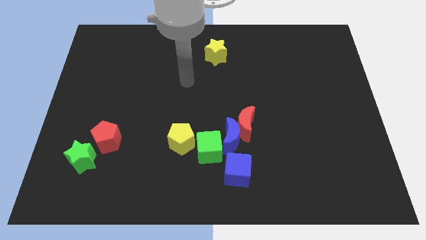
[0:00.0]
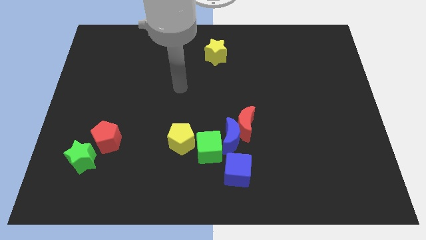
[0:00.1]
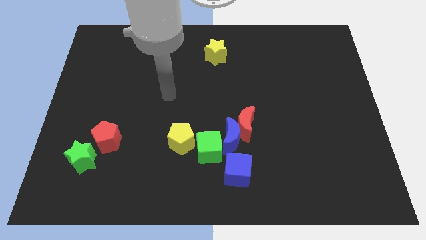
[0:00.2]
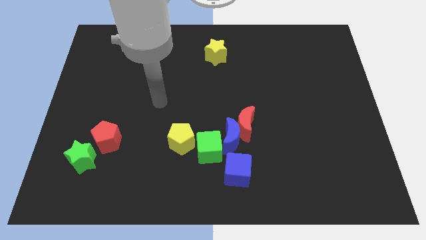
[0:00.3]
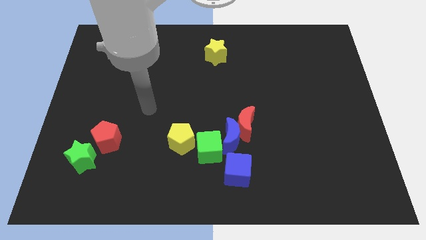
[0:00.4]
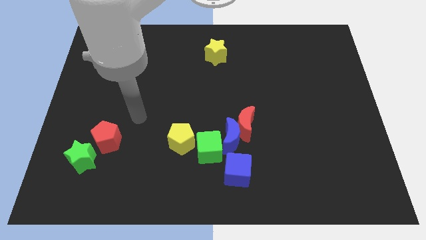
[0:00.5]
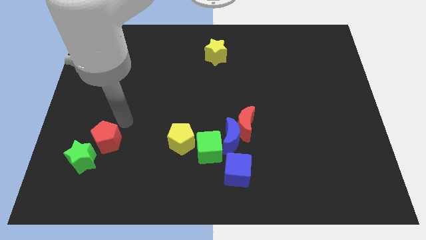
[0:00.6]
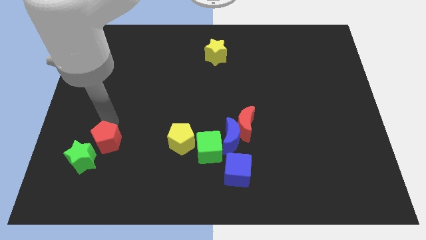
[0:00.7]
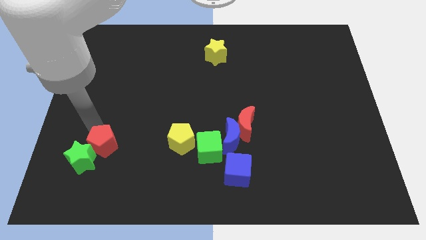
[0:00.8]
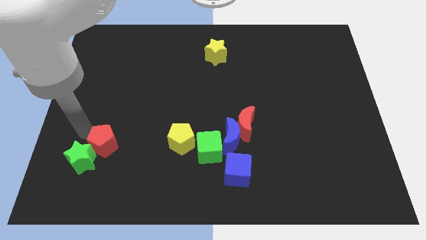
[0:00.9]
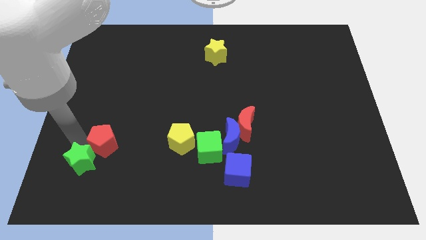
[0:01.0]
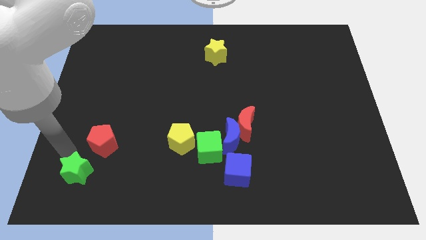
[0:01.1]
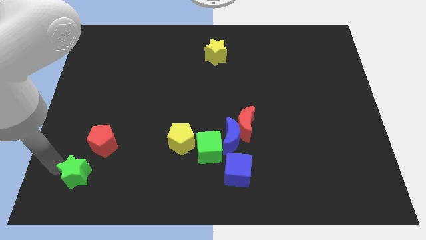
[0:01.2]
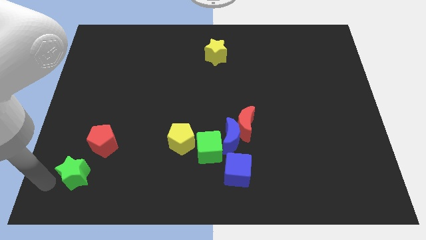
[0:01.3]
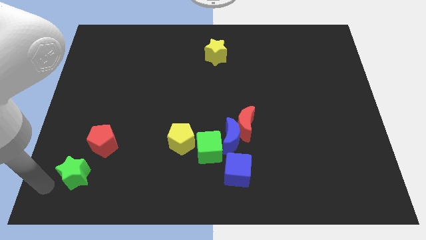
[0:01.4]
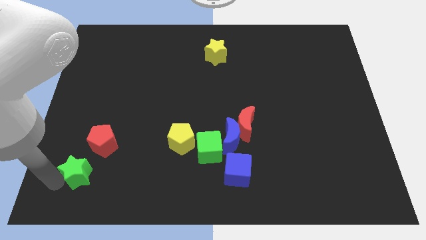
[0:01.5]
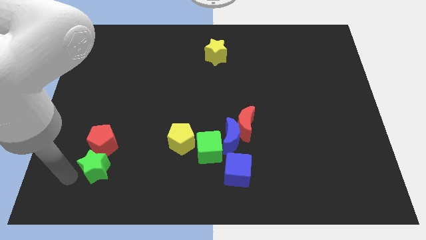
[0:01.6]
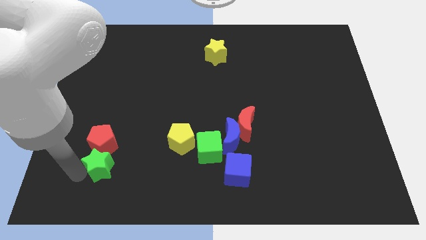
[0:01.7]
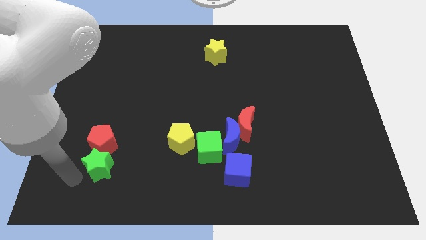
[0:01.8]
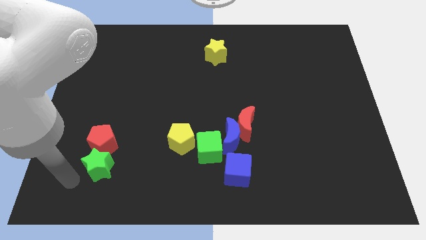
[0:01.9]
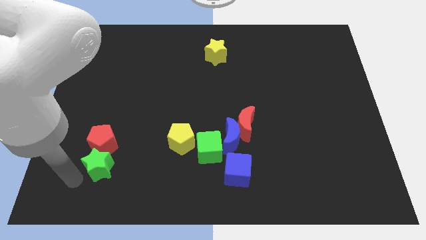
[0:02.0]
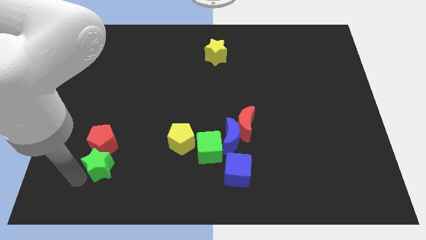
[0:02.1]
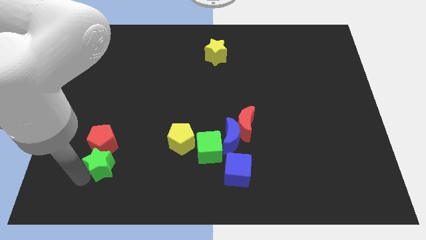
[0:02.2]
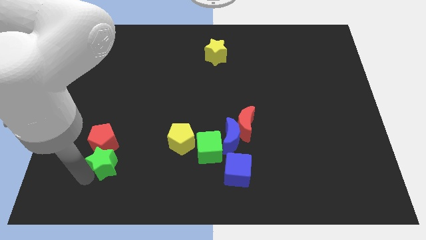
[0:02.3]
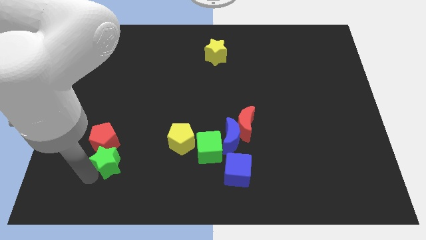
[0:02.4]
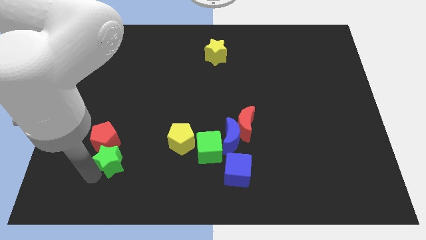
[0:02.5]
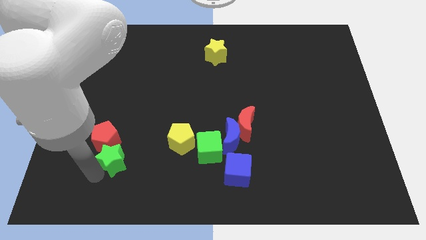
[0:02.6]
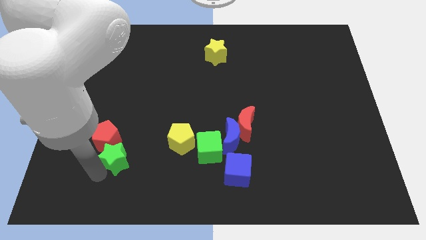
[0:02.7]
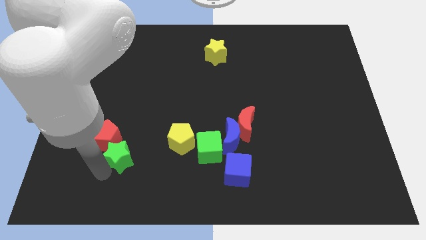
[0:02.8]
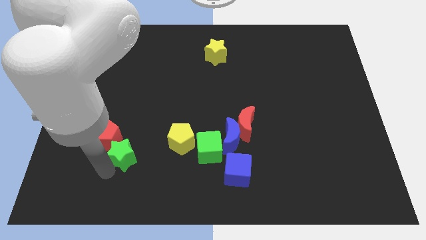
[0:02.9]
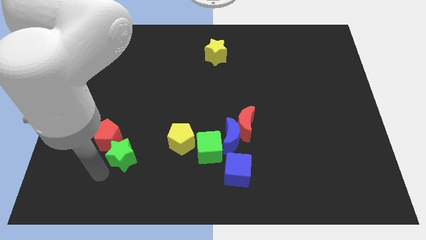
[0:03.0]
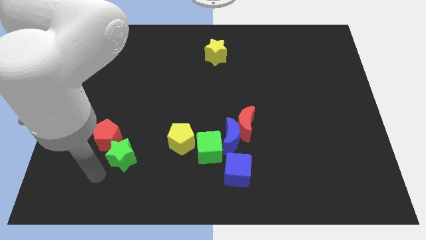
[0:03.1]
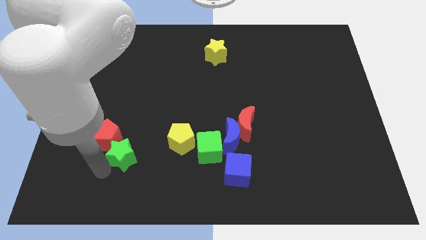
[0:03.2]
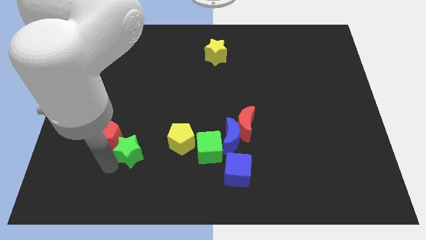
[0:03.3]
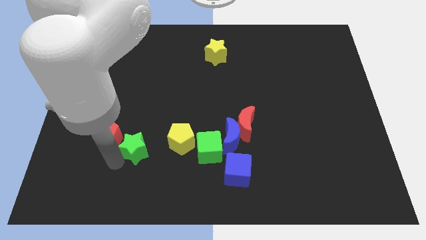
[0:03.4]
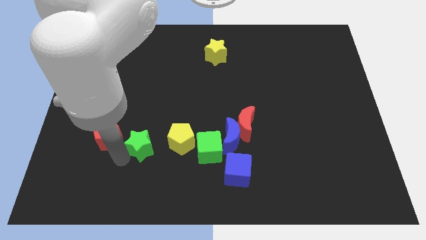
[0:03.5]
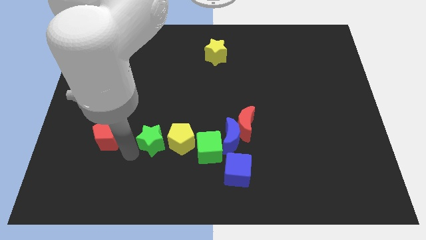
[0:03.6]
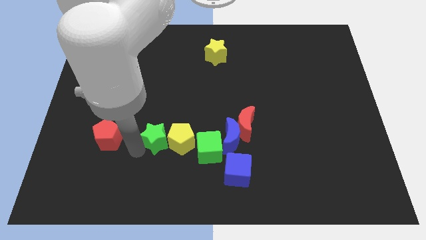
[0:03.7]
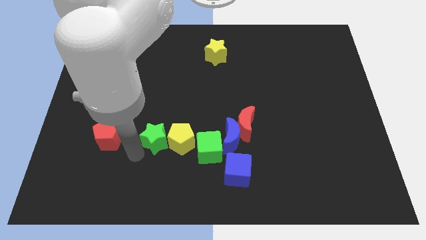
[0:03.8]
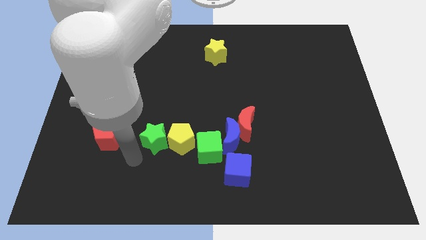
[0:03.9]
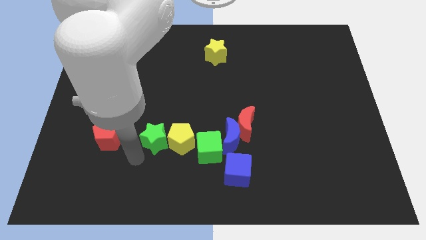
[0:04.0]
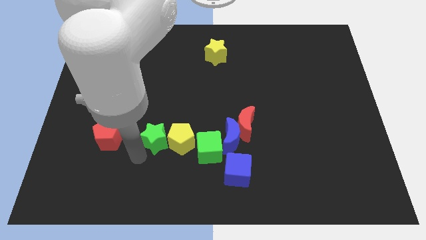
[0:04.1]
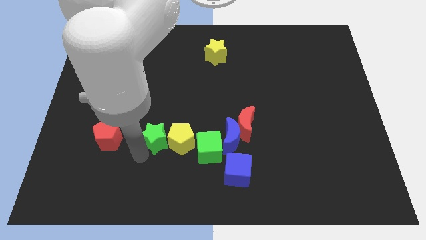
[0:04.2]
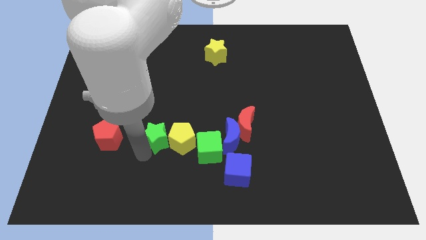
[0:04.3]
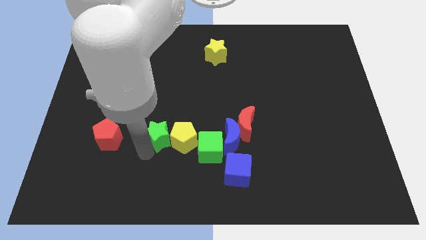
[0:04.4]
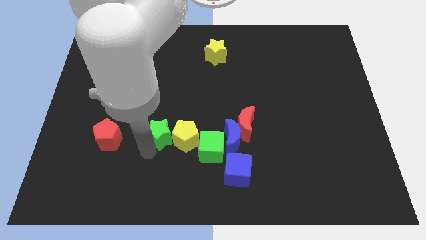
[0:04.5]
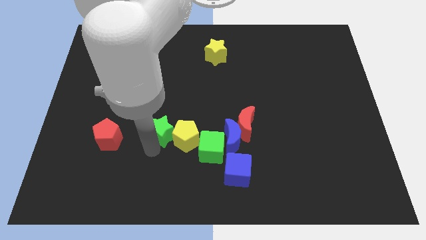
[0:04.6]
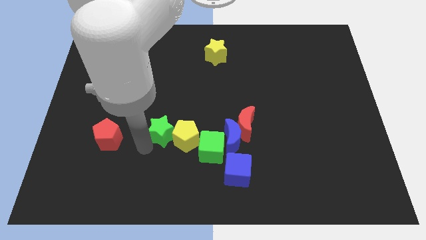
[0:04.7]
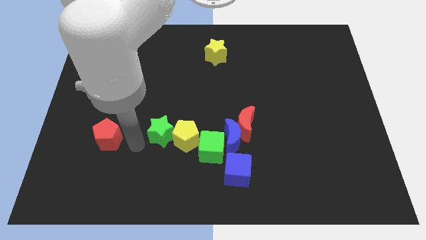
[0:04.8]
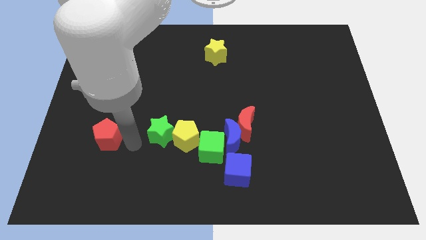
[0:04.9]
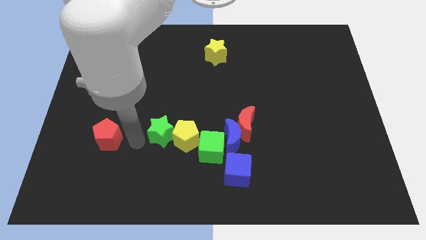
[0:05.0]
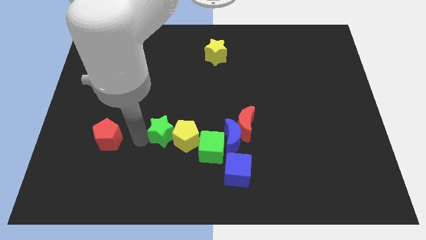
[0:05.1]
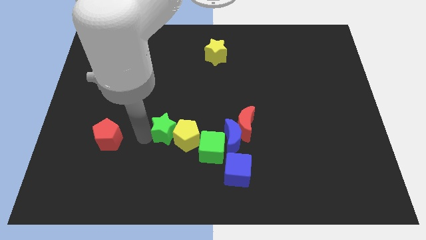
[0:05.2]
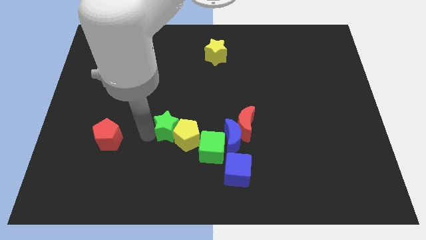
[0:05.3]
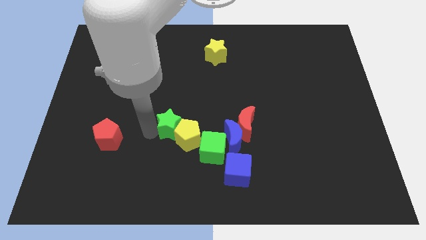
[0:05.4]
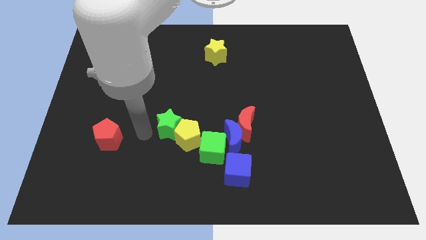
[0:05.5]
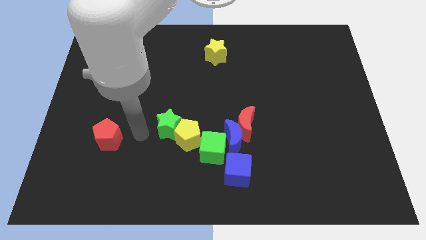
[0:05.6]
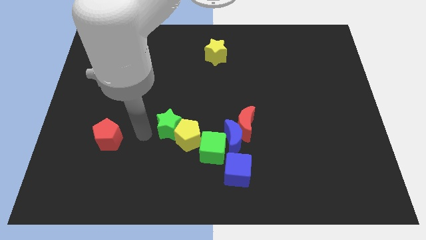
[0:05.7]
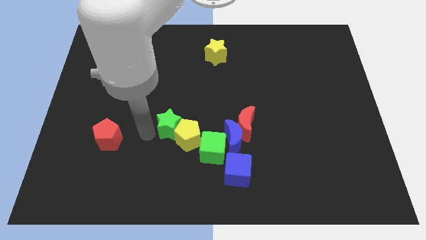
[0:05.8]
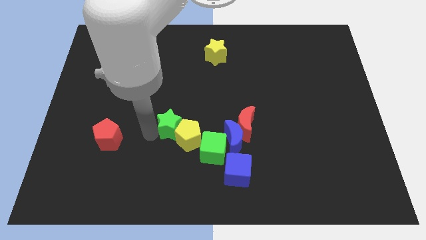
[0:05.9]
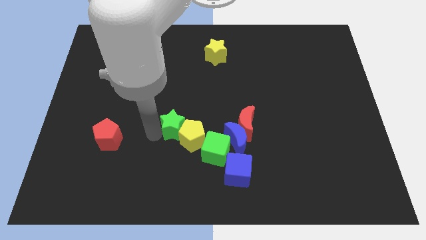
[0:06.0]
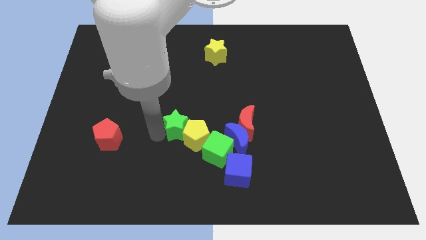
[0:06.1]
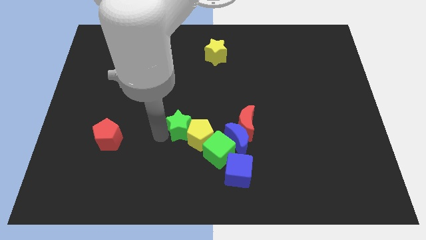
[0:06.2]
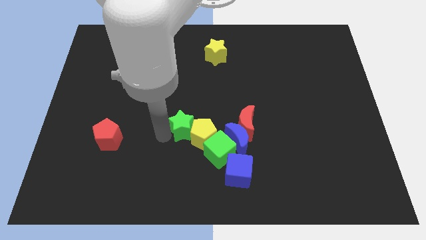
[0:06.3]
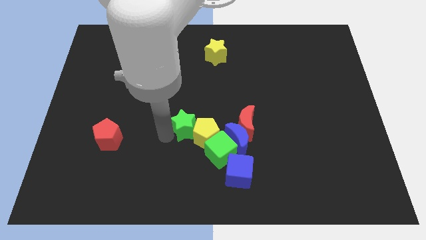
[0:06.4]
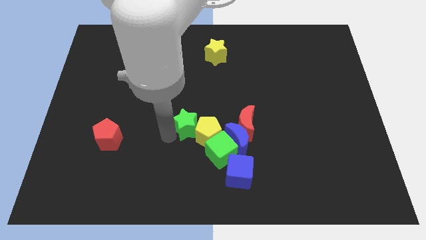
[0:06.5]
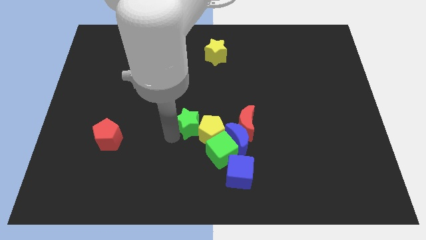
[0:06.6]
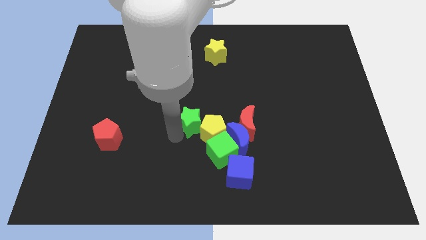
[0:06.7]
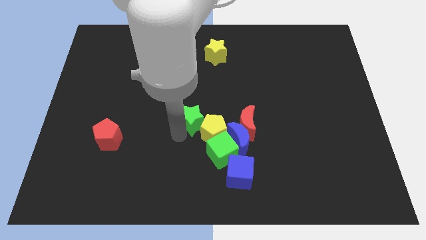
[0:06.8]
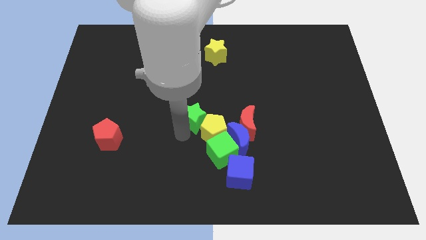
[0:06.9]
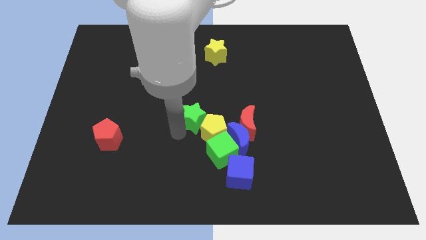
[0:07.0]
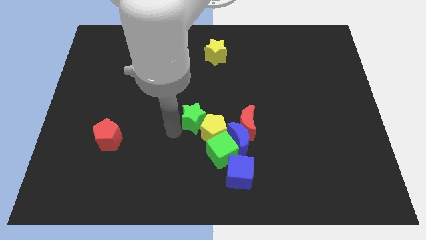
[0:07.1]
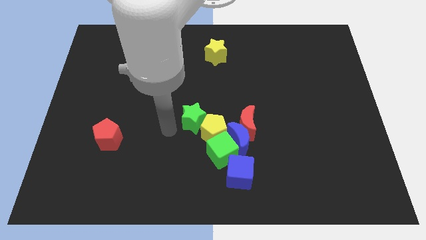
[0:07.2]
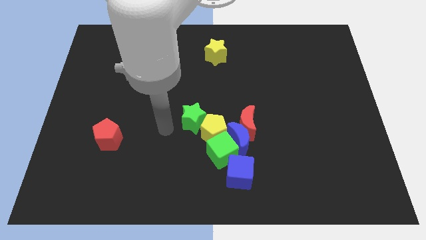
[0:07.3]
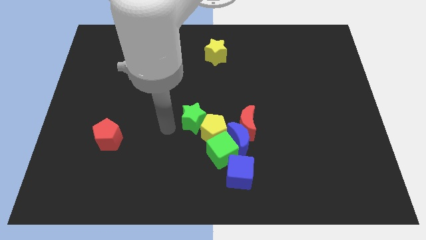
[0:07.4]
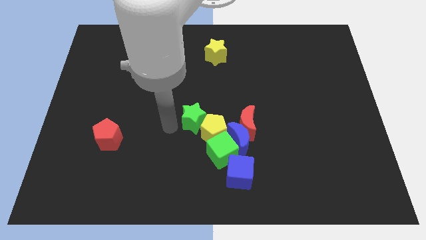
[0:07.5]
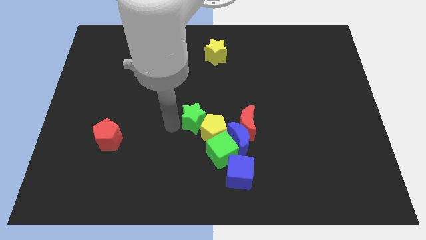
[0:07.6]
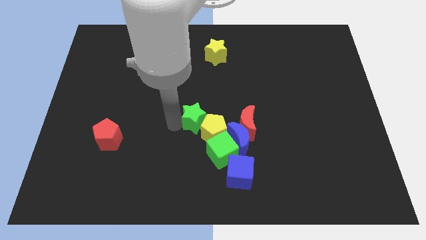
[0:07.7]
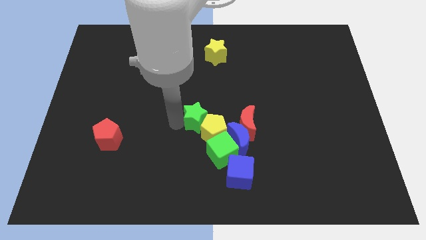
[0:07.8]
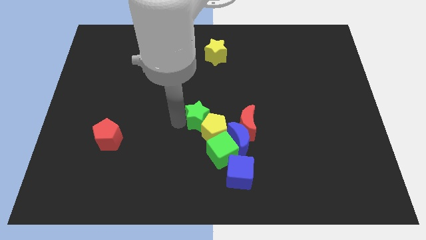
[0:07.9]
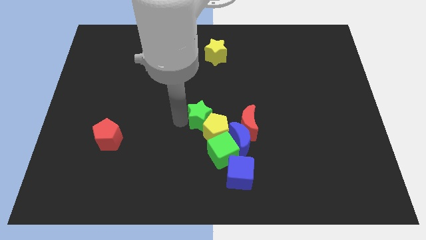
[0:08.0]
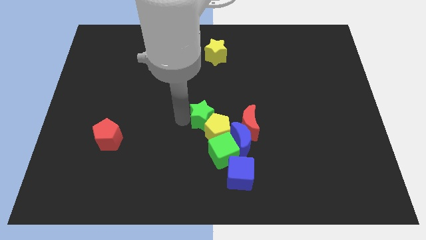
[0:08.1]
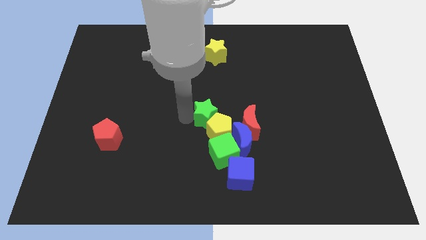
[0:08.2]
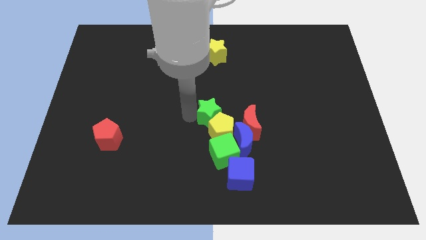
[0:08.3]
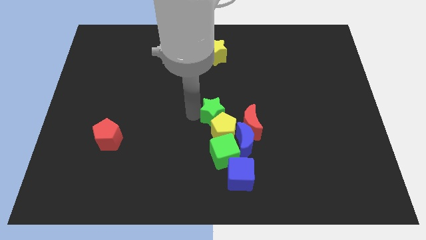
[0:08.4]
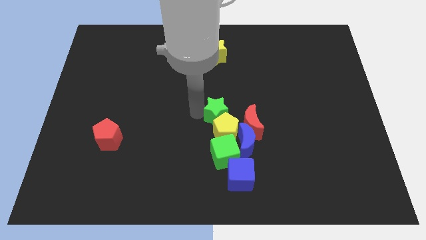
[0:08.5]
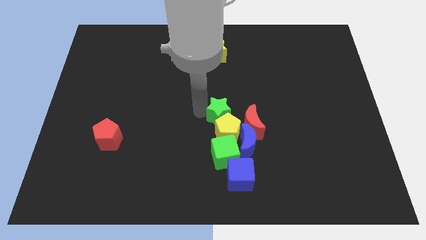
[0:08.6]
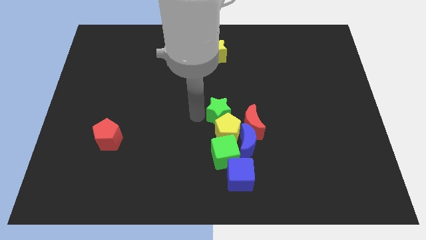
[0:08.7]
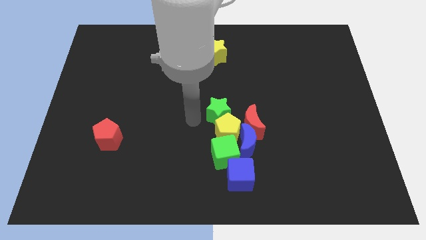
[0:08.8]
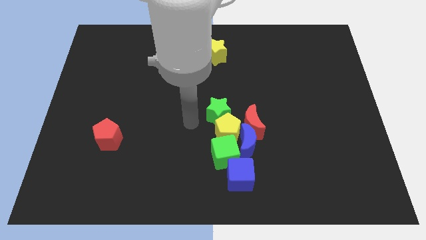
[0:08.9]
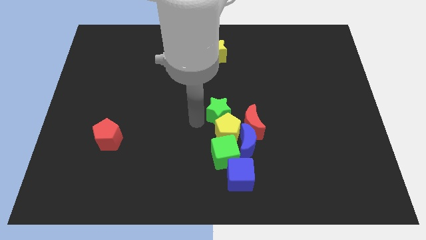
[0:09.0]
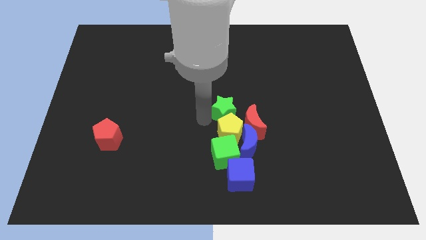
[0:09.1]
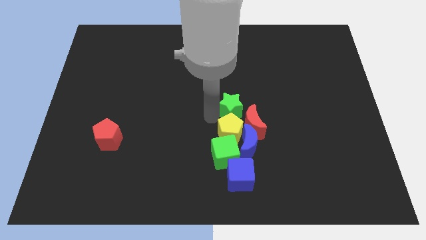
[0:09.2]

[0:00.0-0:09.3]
slide the green star to the top of the blue moon
